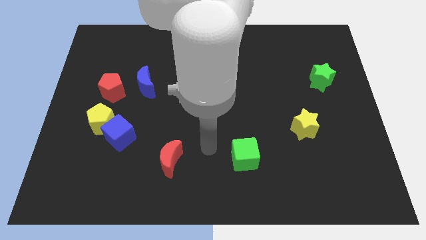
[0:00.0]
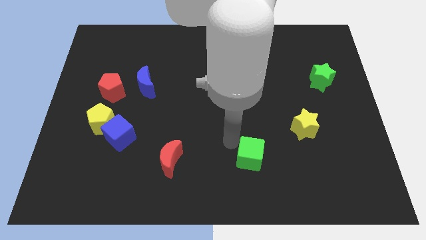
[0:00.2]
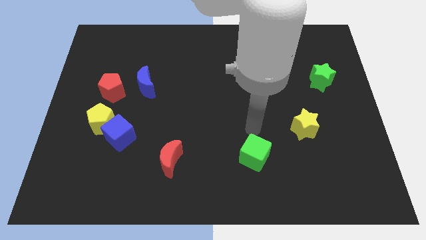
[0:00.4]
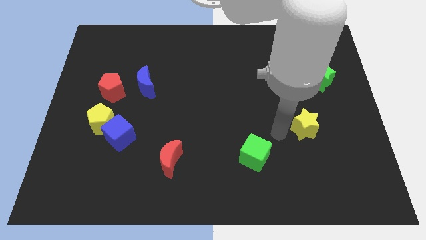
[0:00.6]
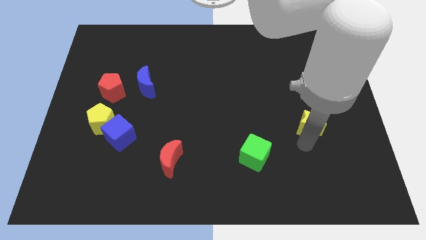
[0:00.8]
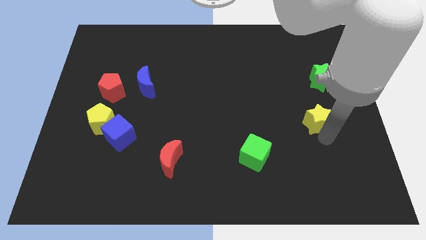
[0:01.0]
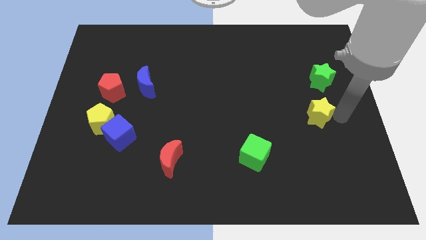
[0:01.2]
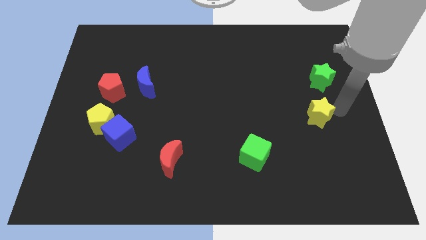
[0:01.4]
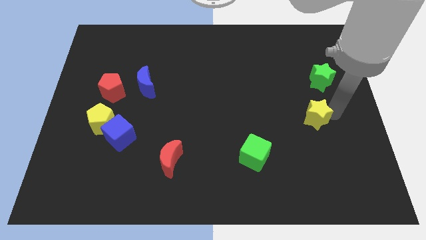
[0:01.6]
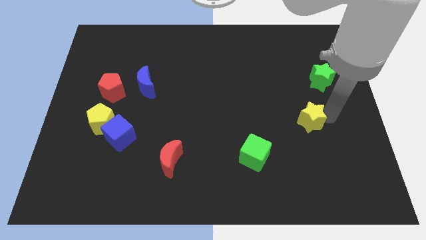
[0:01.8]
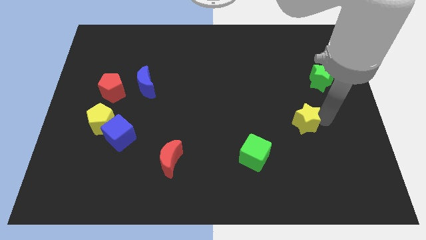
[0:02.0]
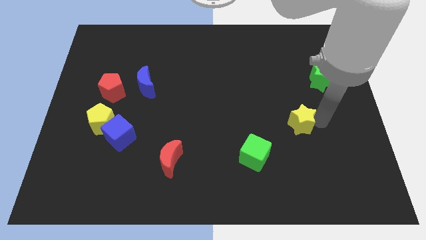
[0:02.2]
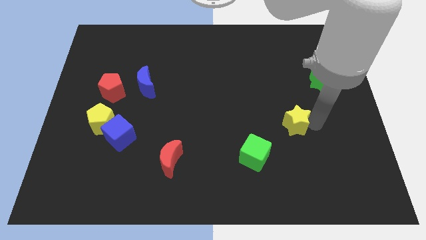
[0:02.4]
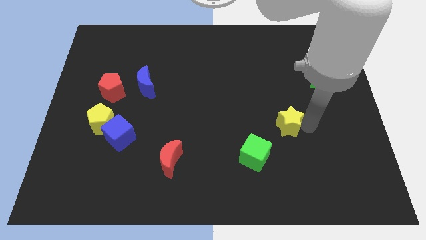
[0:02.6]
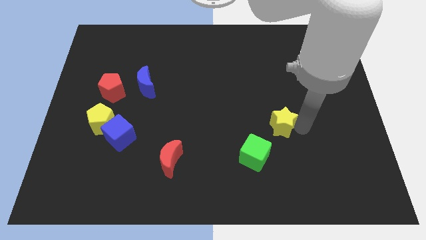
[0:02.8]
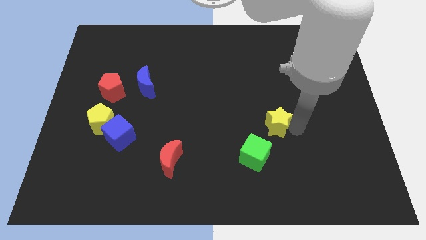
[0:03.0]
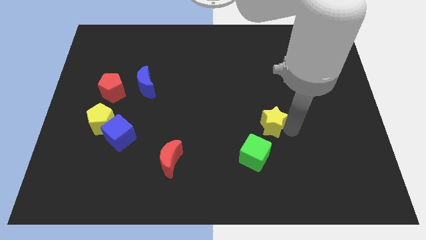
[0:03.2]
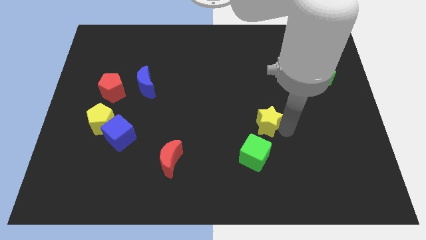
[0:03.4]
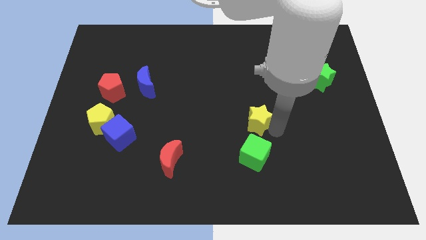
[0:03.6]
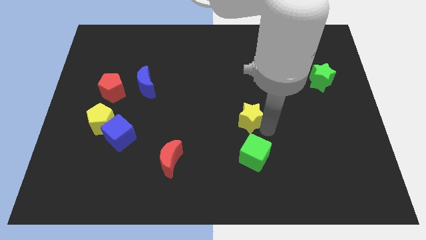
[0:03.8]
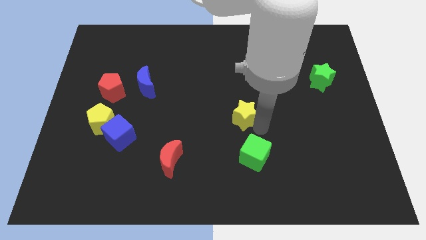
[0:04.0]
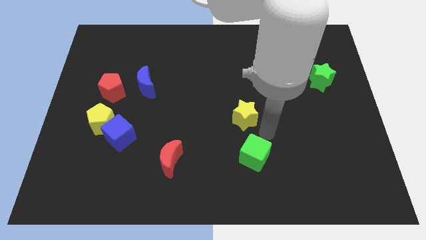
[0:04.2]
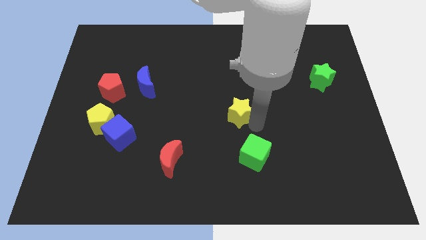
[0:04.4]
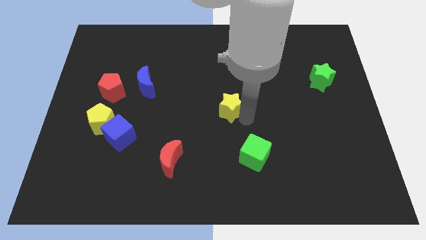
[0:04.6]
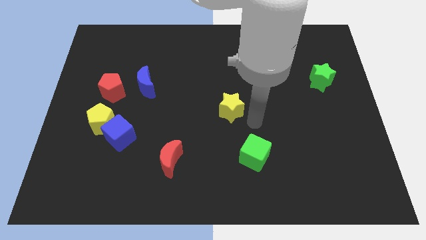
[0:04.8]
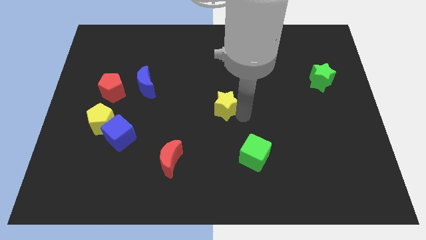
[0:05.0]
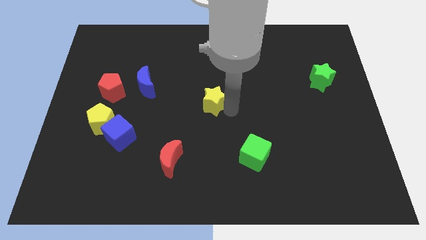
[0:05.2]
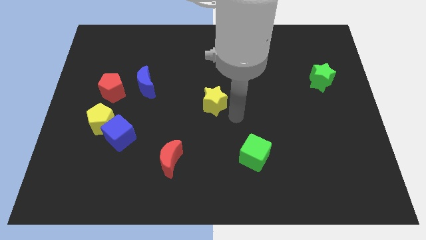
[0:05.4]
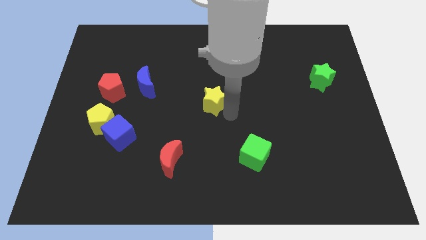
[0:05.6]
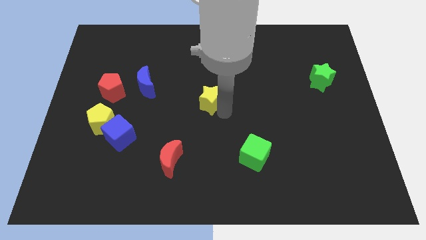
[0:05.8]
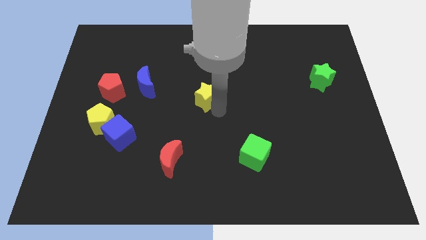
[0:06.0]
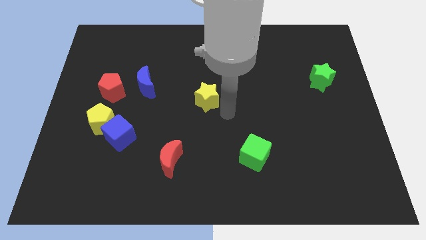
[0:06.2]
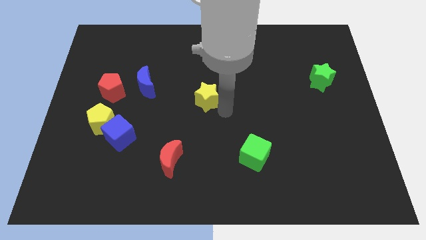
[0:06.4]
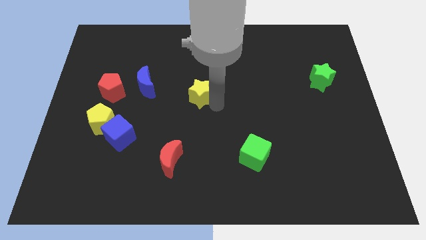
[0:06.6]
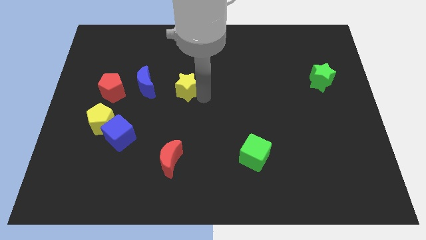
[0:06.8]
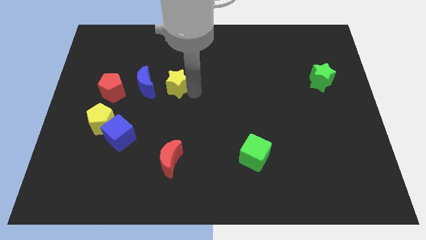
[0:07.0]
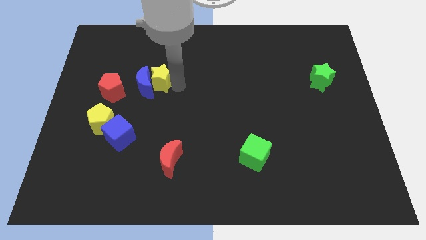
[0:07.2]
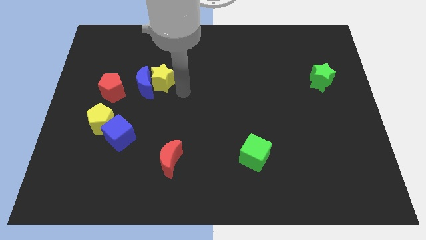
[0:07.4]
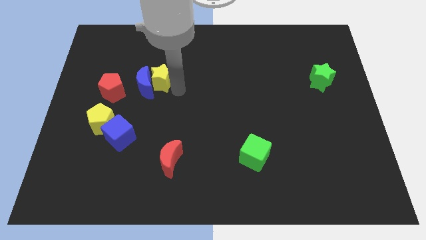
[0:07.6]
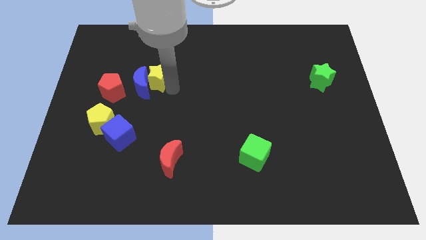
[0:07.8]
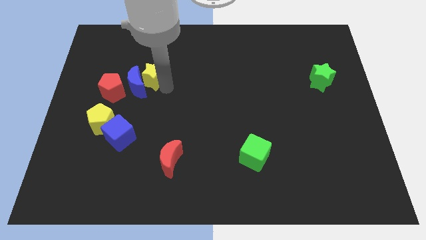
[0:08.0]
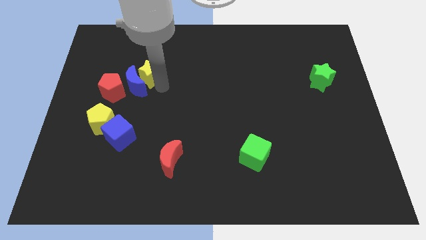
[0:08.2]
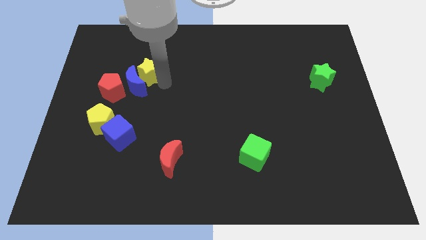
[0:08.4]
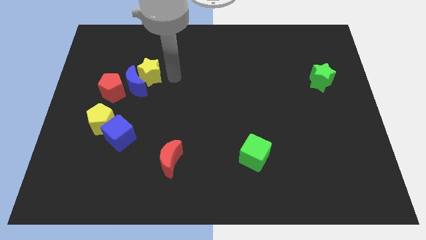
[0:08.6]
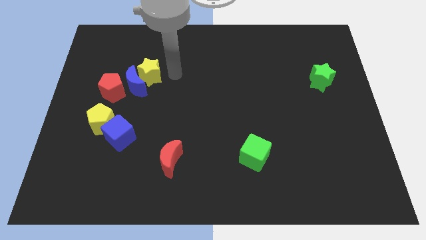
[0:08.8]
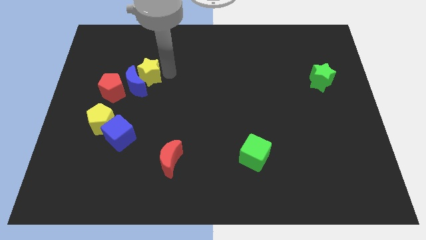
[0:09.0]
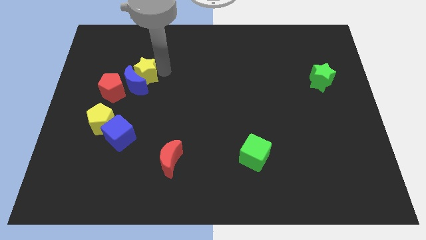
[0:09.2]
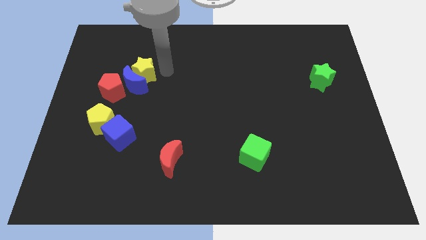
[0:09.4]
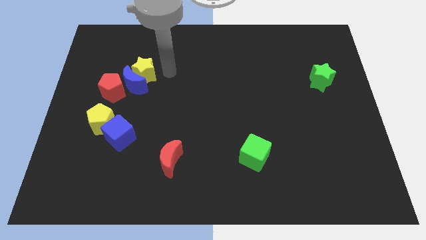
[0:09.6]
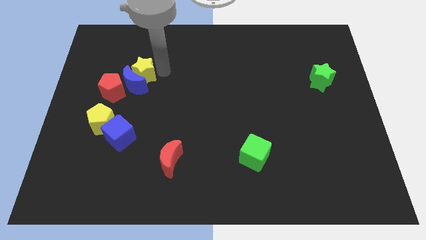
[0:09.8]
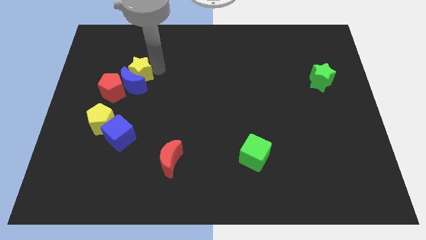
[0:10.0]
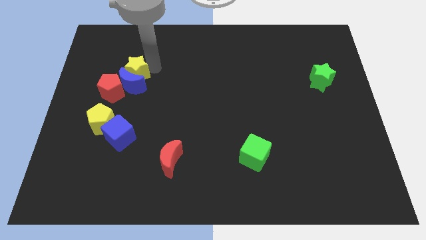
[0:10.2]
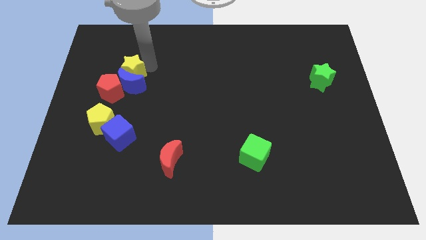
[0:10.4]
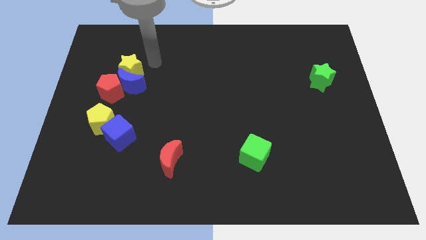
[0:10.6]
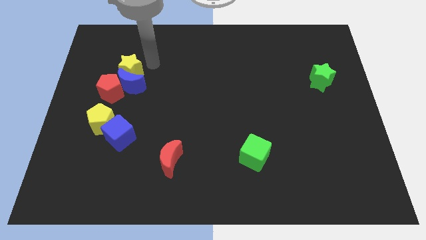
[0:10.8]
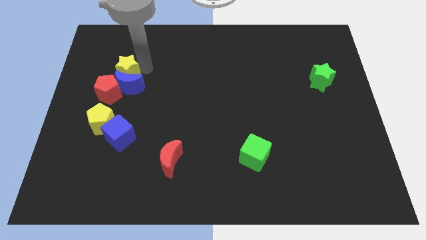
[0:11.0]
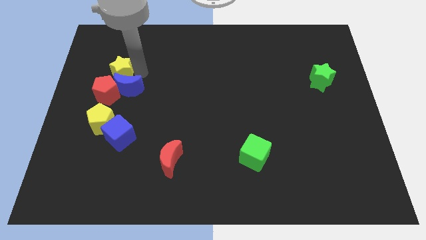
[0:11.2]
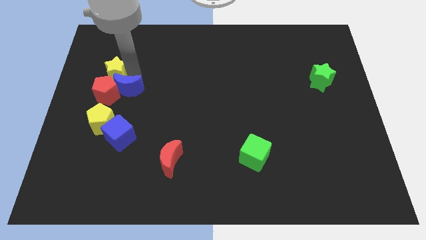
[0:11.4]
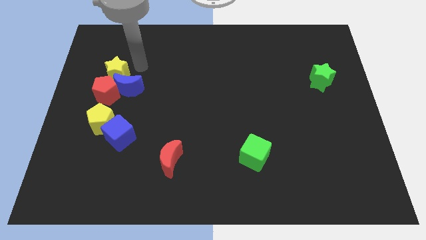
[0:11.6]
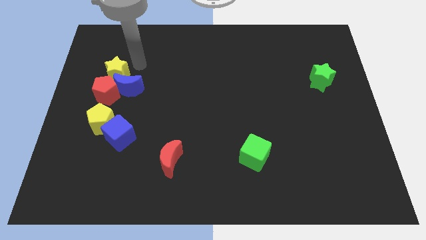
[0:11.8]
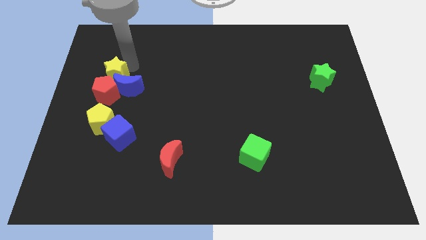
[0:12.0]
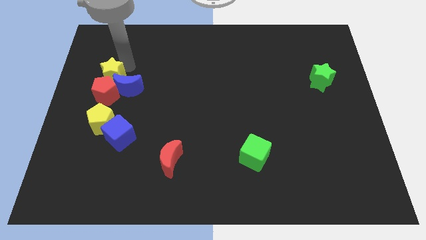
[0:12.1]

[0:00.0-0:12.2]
push the yellow star just left of the blue moon

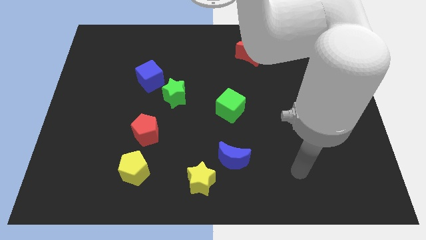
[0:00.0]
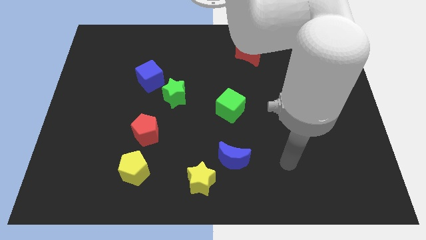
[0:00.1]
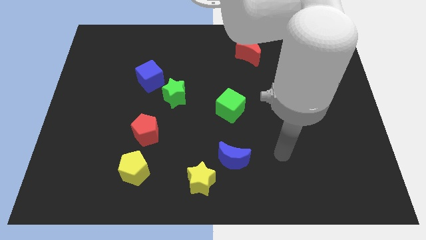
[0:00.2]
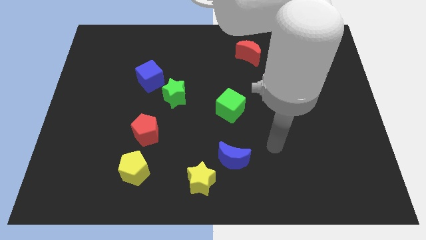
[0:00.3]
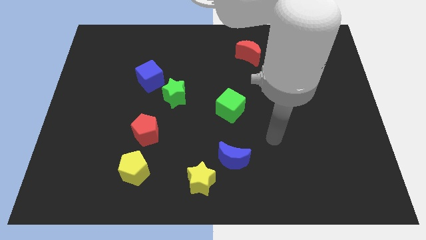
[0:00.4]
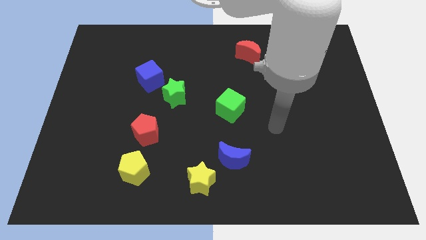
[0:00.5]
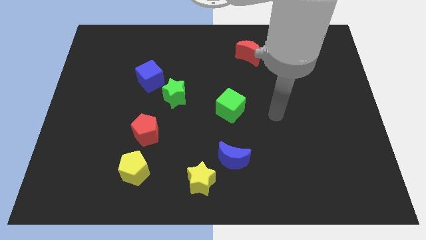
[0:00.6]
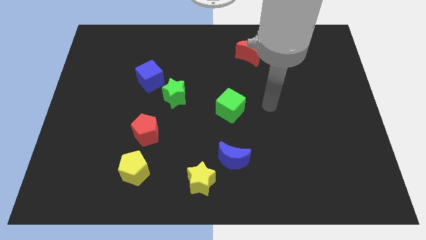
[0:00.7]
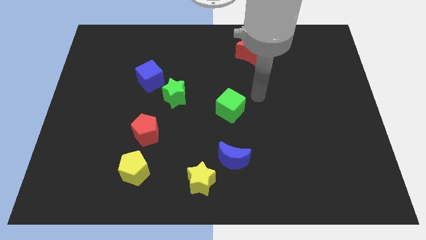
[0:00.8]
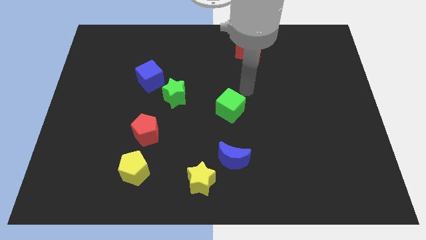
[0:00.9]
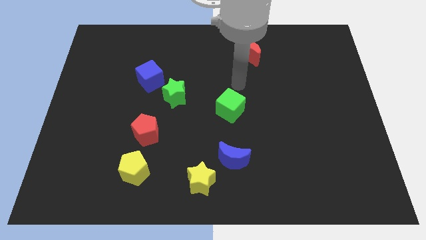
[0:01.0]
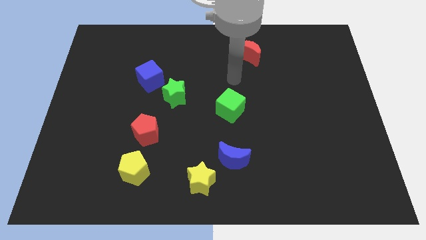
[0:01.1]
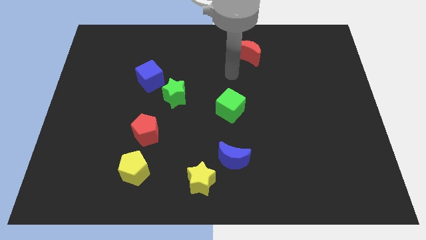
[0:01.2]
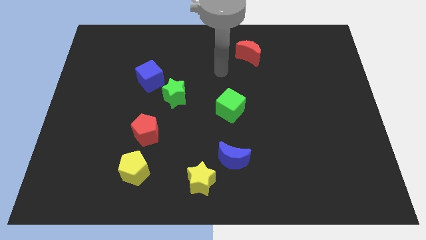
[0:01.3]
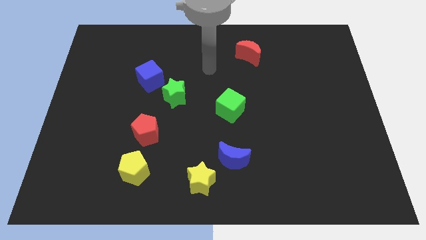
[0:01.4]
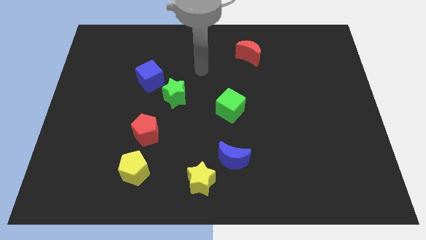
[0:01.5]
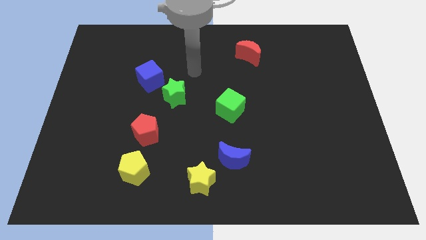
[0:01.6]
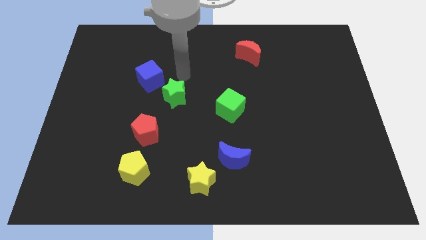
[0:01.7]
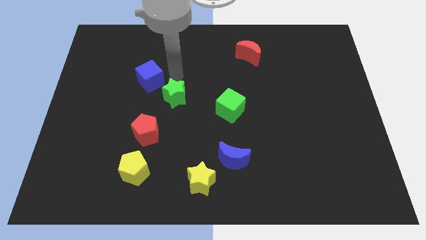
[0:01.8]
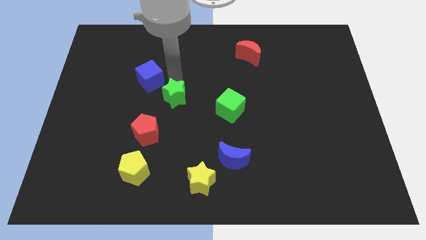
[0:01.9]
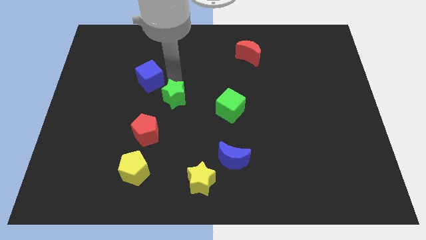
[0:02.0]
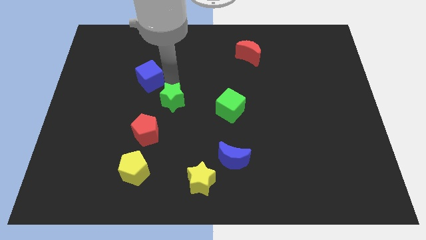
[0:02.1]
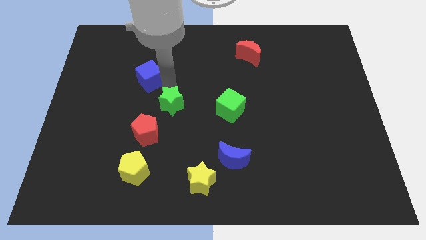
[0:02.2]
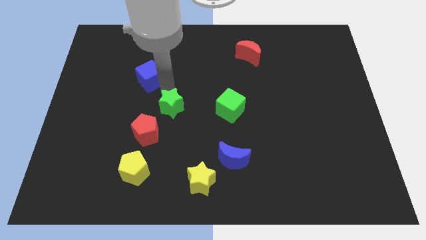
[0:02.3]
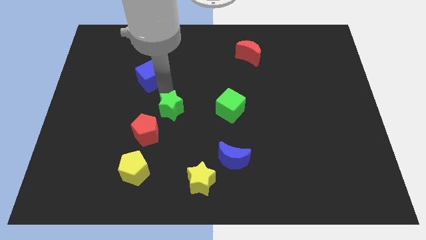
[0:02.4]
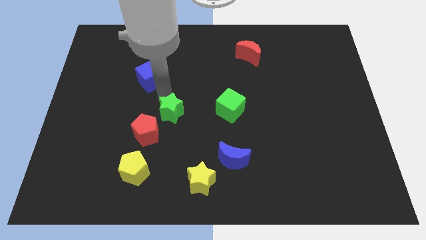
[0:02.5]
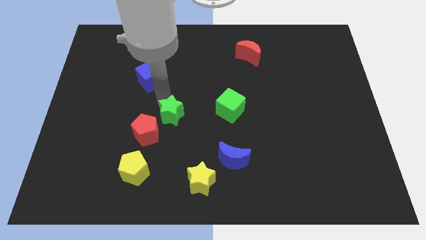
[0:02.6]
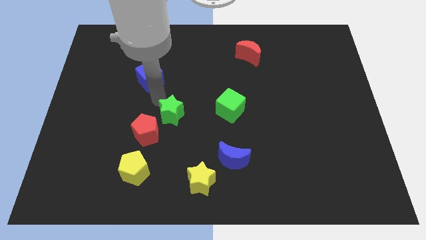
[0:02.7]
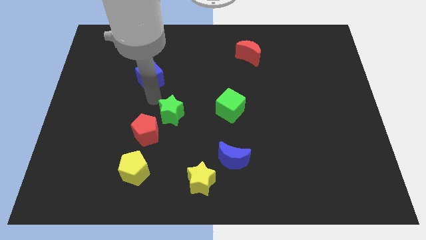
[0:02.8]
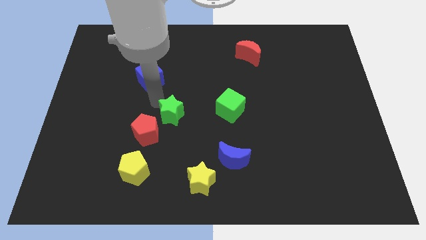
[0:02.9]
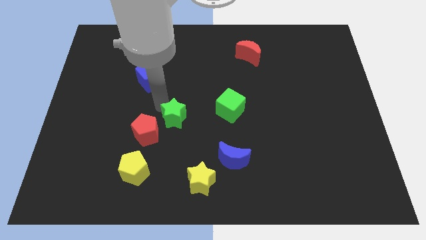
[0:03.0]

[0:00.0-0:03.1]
move the green star just right of the red pentagon
